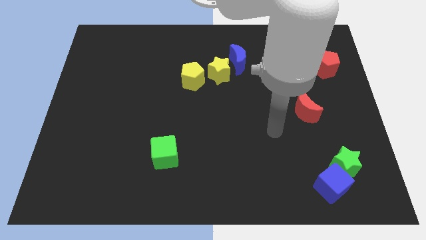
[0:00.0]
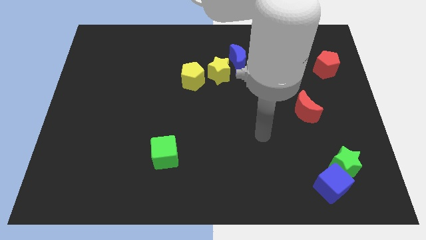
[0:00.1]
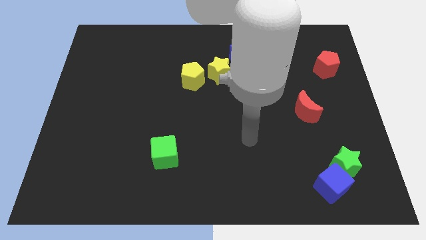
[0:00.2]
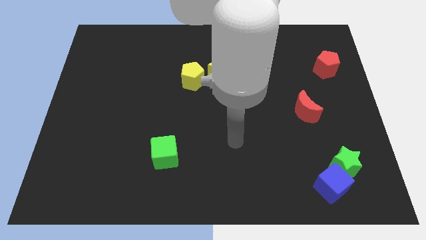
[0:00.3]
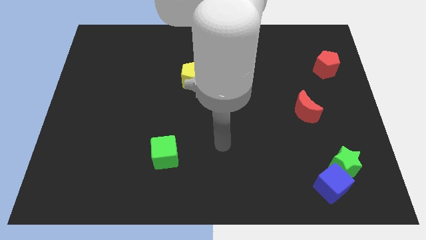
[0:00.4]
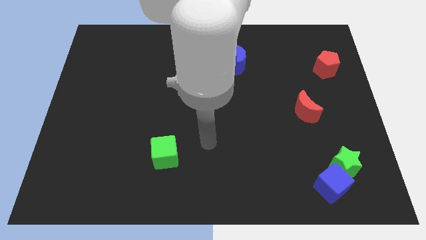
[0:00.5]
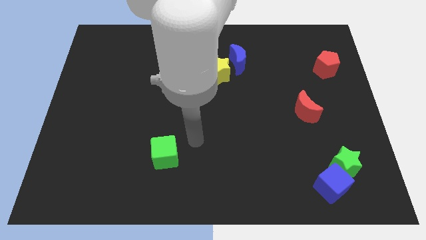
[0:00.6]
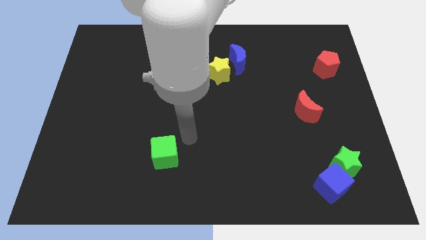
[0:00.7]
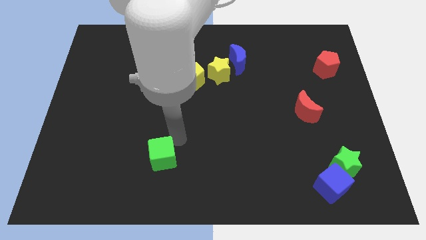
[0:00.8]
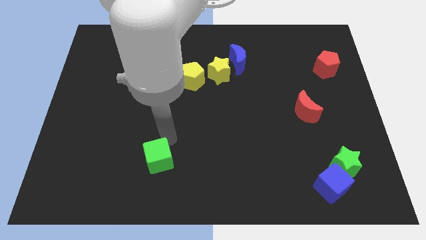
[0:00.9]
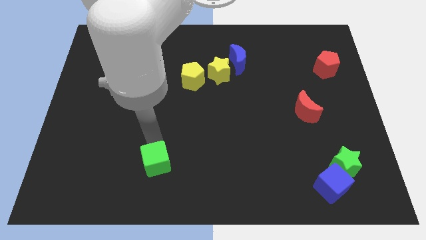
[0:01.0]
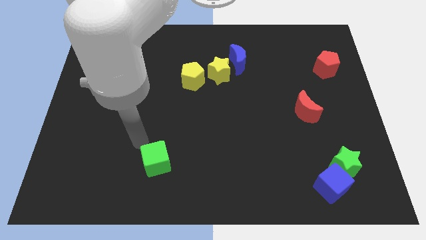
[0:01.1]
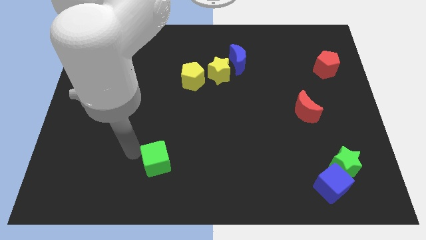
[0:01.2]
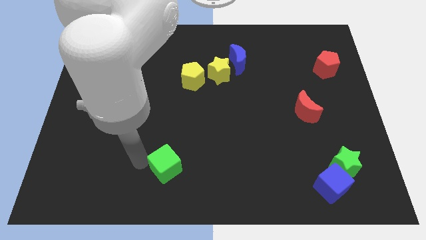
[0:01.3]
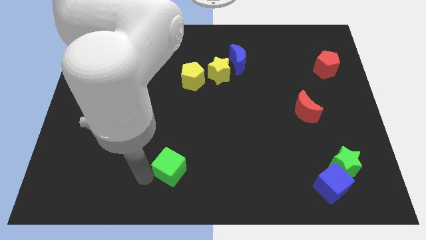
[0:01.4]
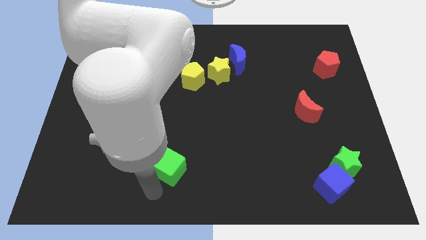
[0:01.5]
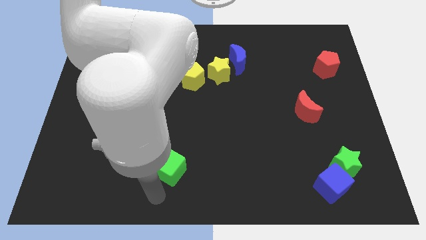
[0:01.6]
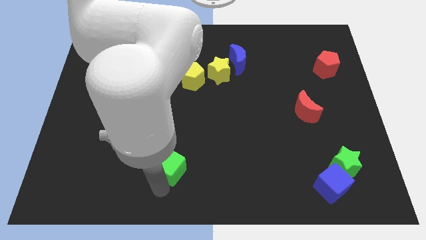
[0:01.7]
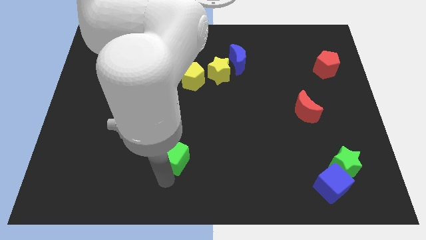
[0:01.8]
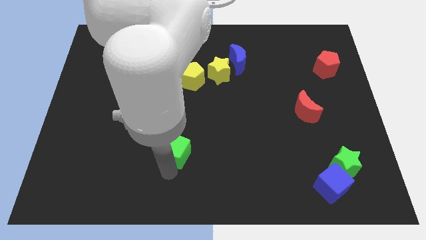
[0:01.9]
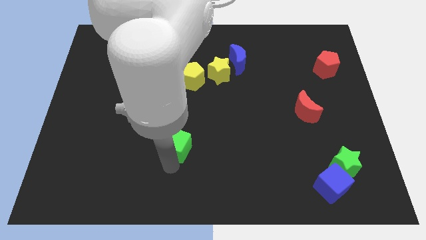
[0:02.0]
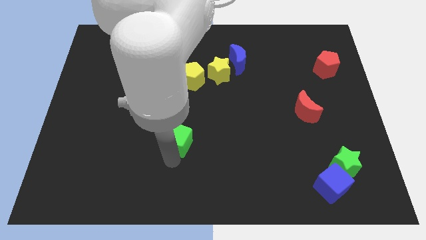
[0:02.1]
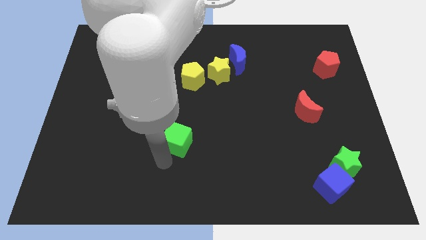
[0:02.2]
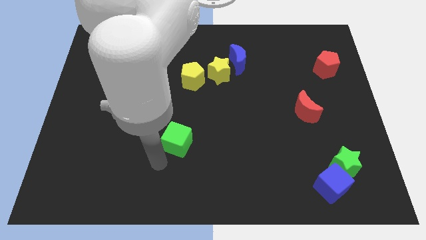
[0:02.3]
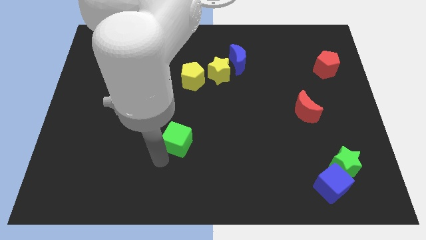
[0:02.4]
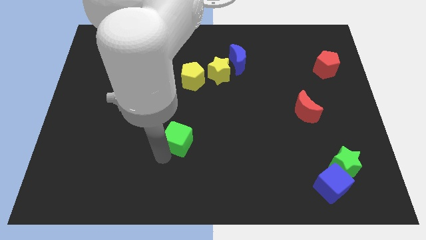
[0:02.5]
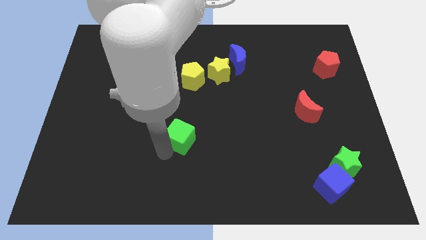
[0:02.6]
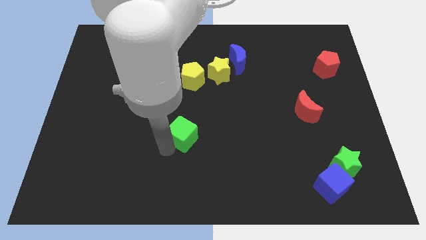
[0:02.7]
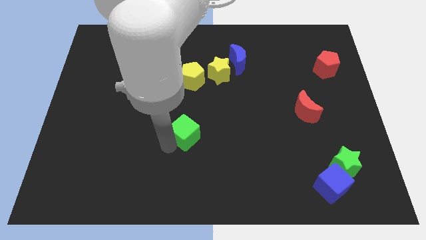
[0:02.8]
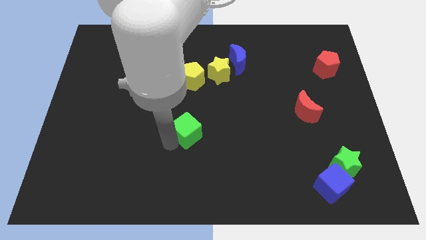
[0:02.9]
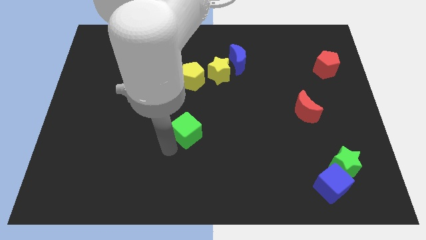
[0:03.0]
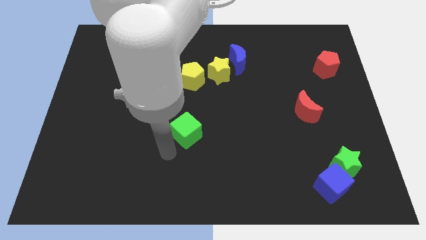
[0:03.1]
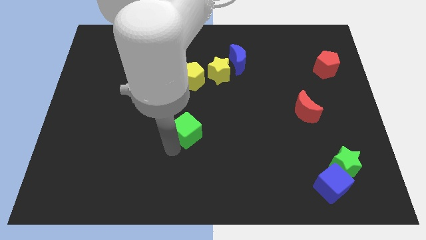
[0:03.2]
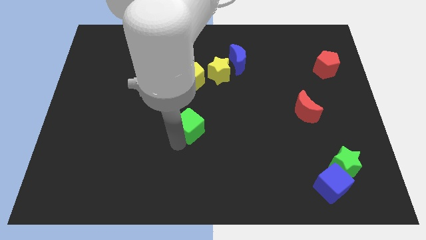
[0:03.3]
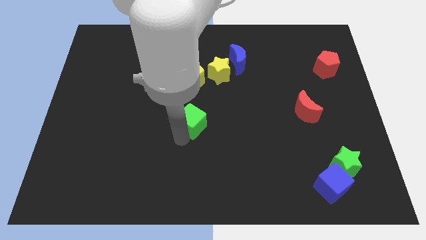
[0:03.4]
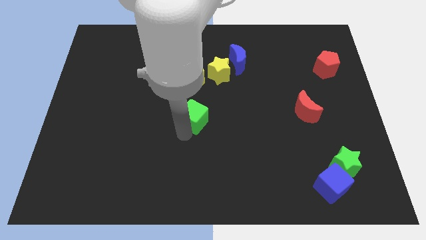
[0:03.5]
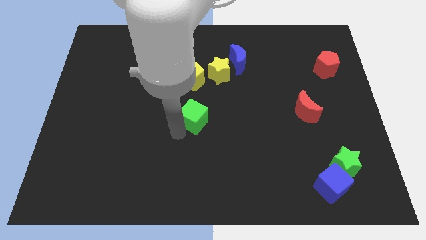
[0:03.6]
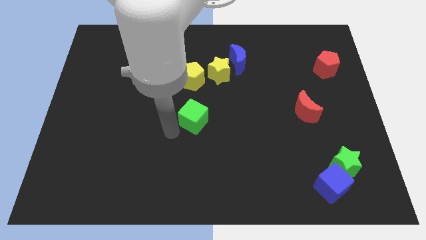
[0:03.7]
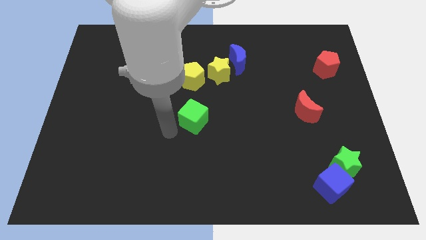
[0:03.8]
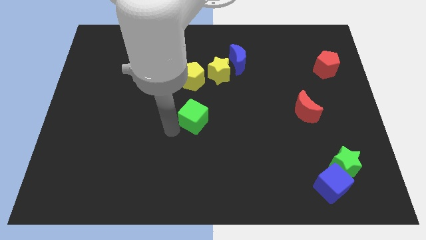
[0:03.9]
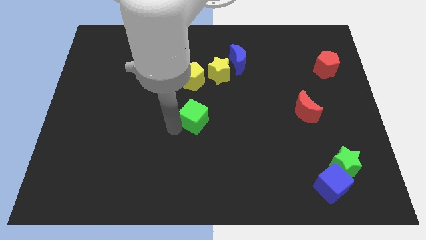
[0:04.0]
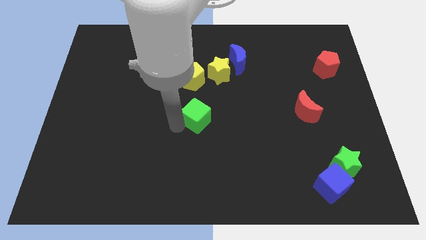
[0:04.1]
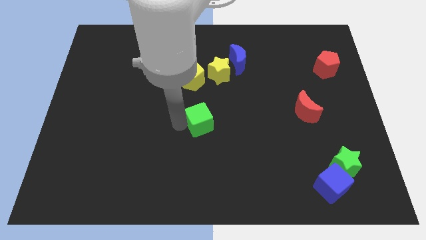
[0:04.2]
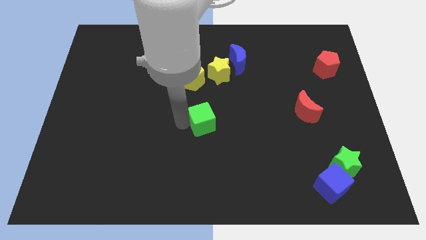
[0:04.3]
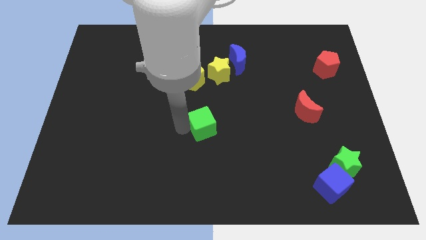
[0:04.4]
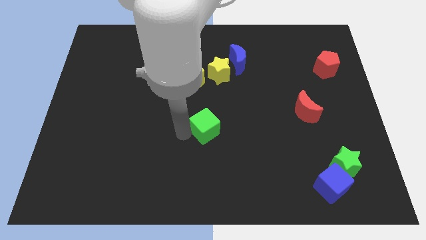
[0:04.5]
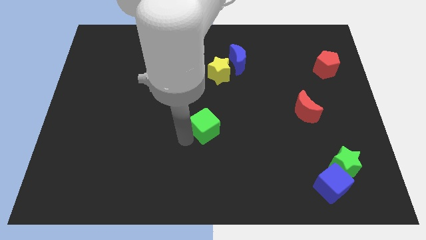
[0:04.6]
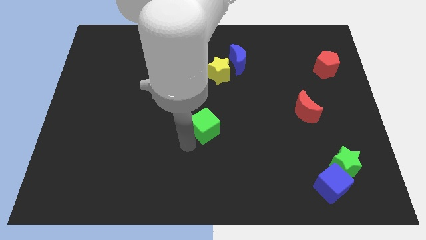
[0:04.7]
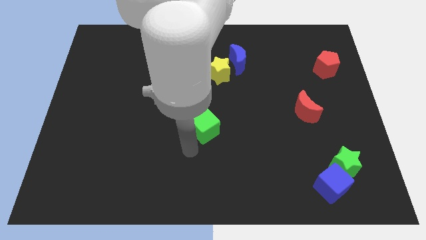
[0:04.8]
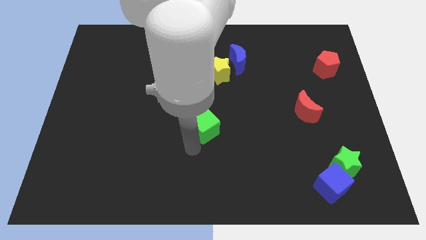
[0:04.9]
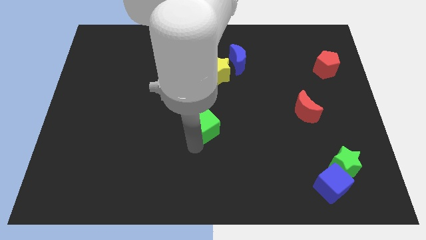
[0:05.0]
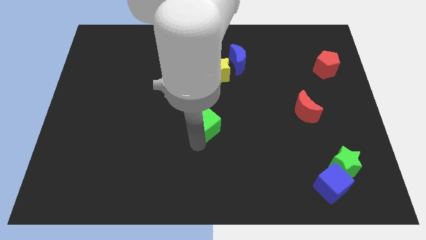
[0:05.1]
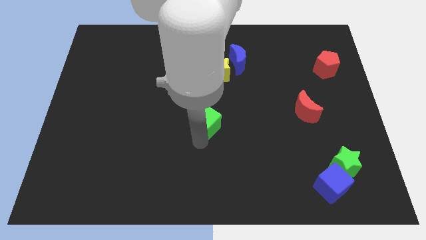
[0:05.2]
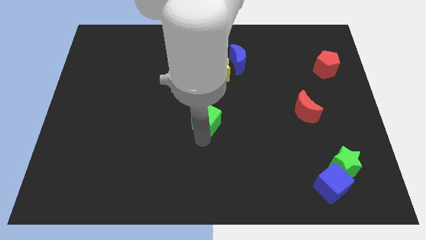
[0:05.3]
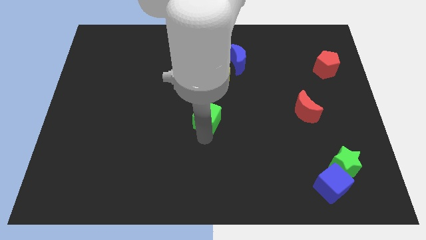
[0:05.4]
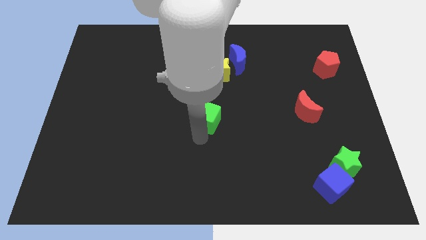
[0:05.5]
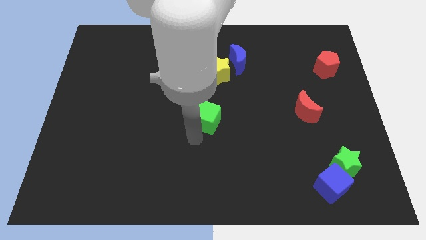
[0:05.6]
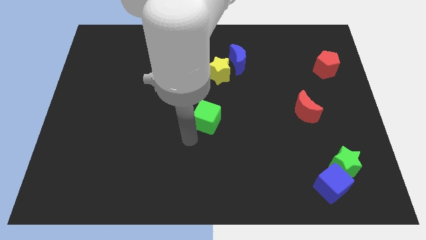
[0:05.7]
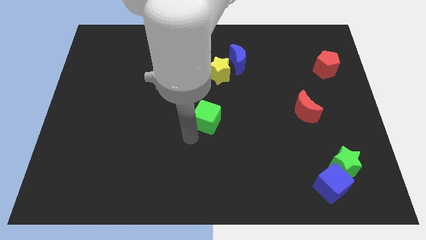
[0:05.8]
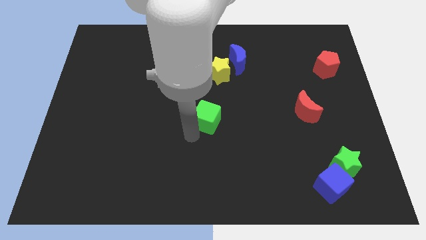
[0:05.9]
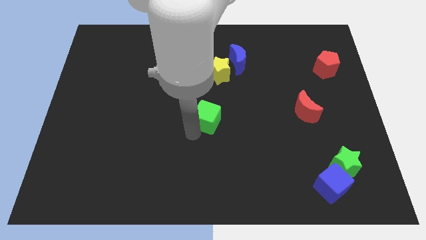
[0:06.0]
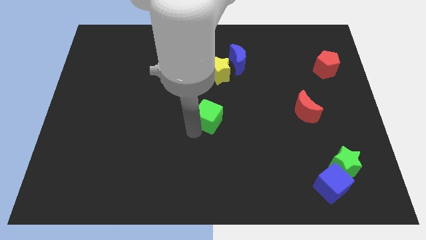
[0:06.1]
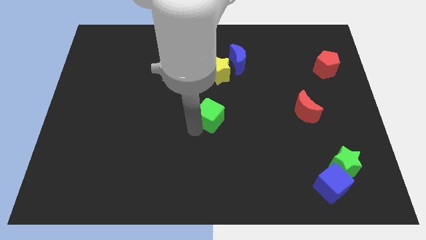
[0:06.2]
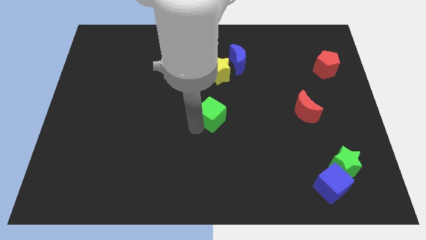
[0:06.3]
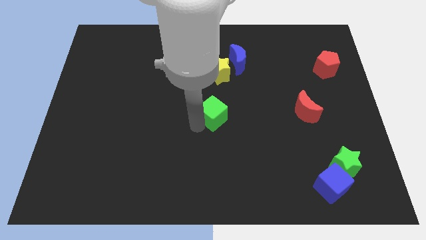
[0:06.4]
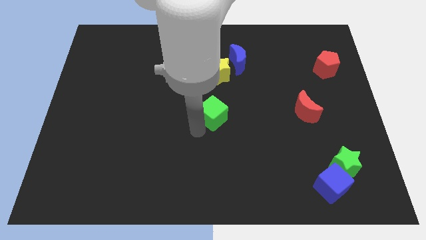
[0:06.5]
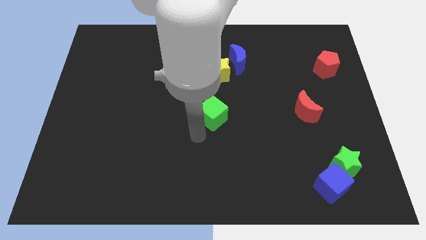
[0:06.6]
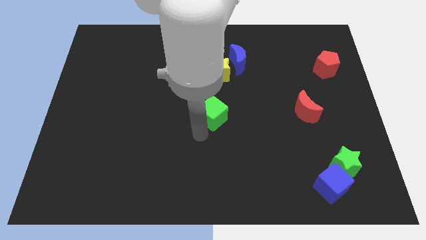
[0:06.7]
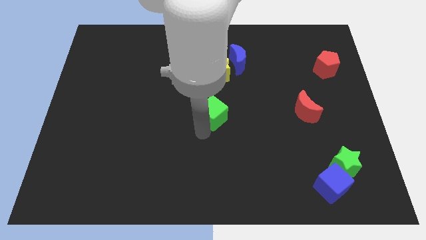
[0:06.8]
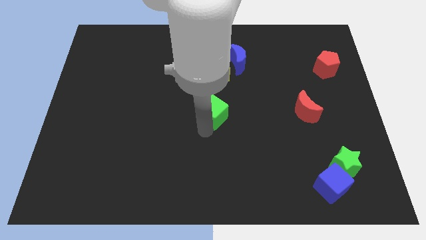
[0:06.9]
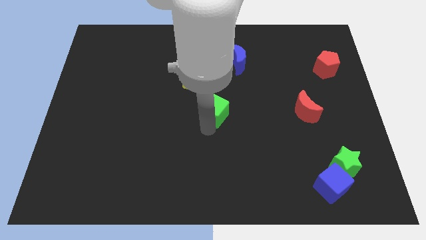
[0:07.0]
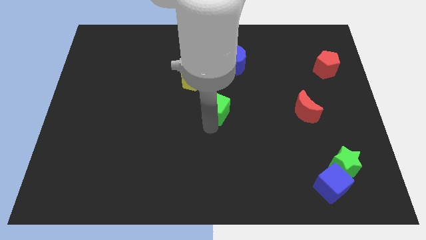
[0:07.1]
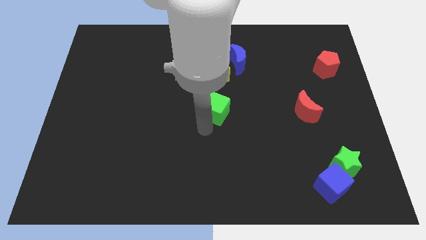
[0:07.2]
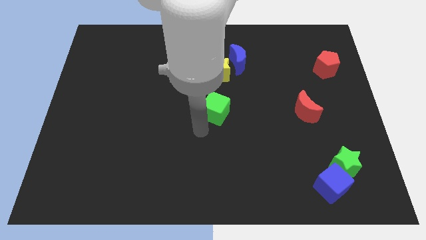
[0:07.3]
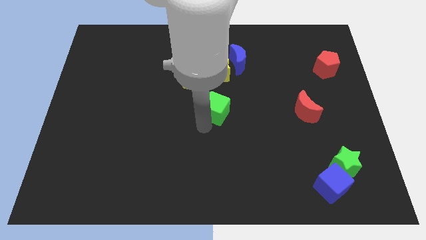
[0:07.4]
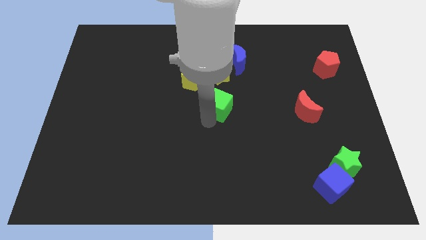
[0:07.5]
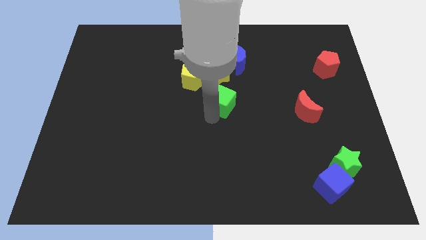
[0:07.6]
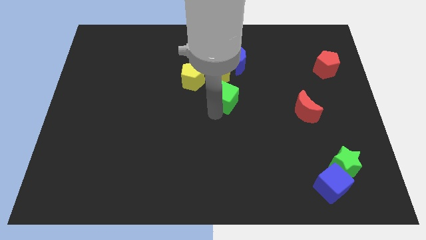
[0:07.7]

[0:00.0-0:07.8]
move the green cube up and right diagonally

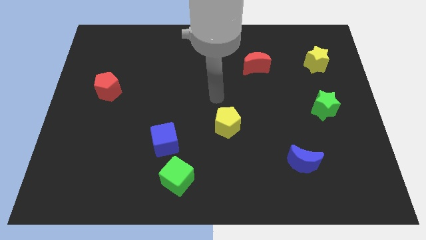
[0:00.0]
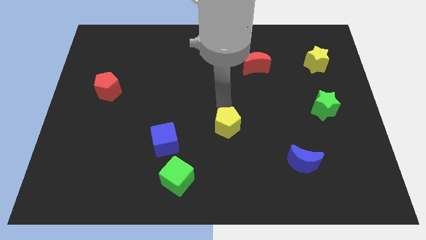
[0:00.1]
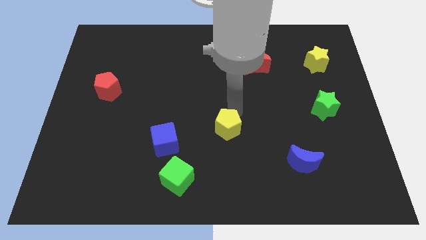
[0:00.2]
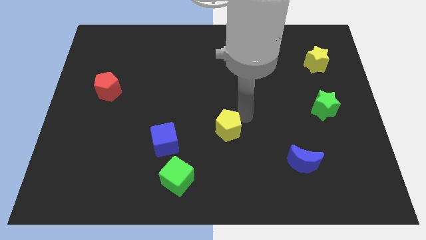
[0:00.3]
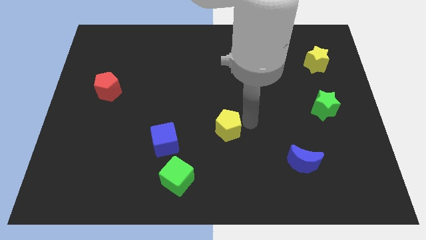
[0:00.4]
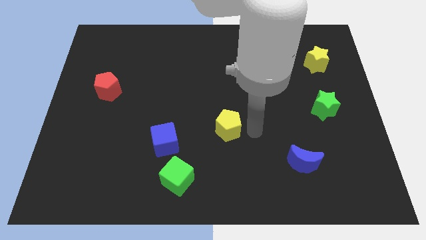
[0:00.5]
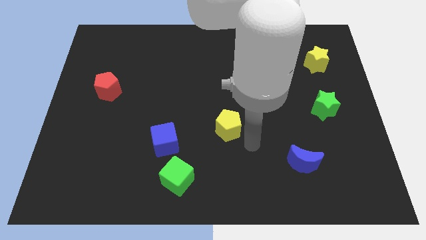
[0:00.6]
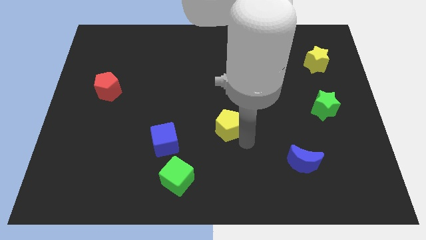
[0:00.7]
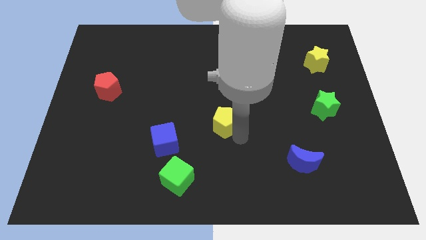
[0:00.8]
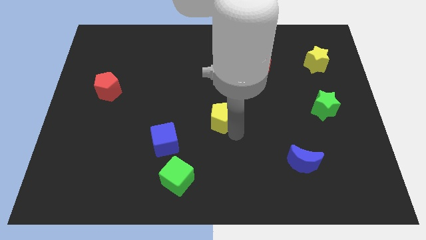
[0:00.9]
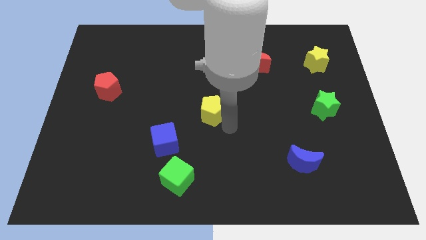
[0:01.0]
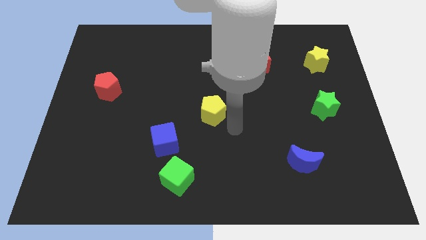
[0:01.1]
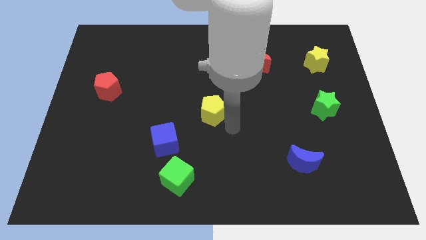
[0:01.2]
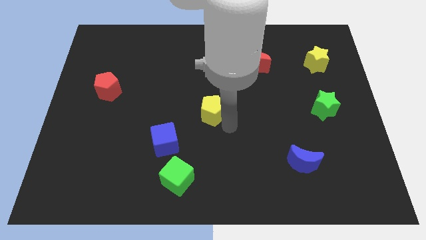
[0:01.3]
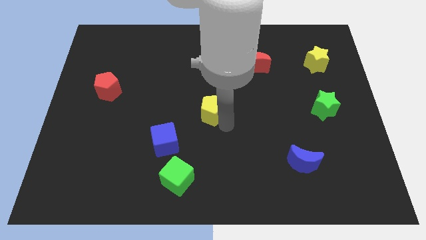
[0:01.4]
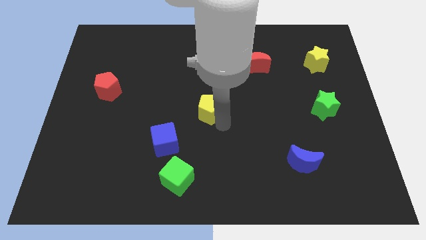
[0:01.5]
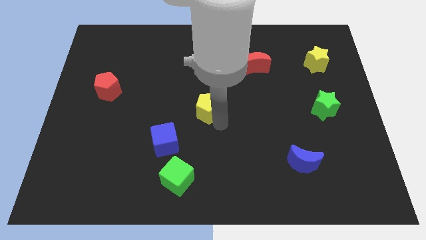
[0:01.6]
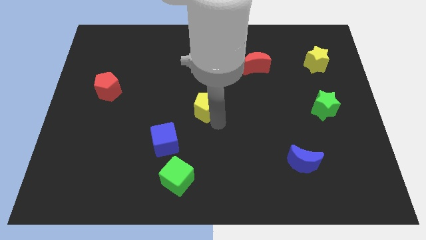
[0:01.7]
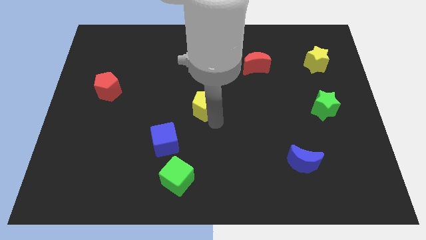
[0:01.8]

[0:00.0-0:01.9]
slide the yellow pentagon somewhat diagonally upwards and left
